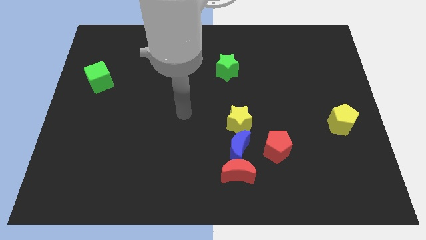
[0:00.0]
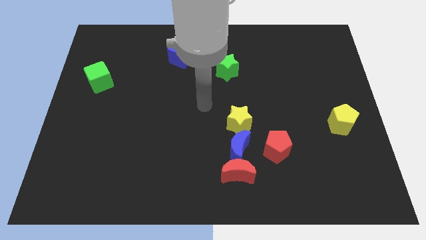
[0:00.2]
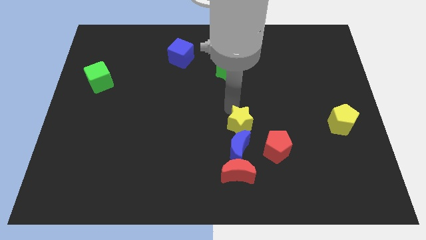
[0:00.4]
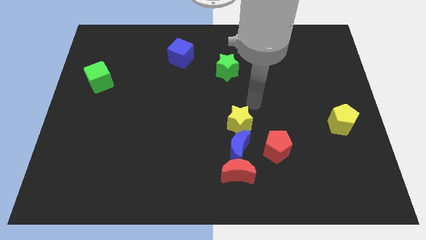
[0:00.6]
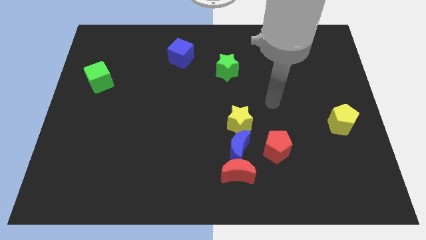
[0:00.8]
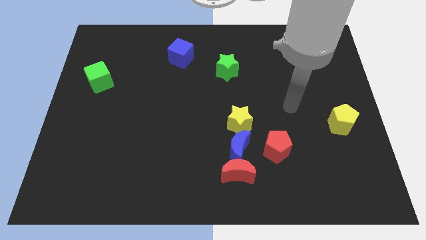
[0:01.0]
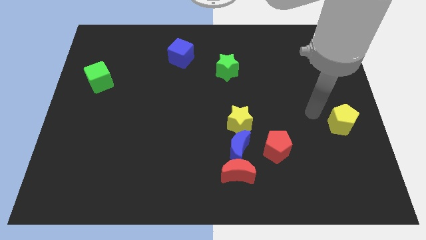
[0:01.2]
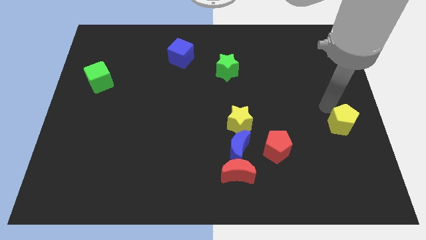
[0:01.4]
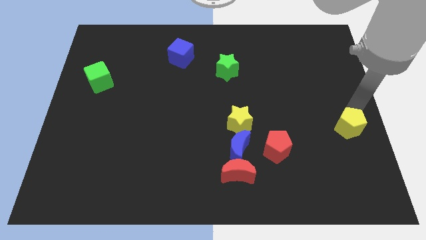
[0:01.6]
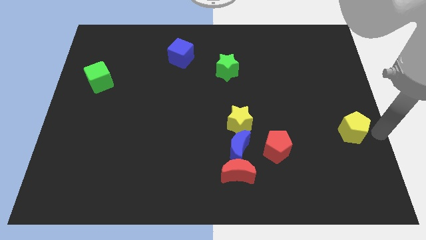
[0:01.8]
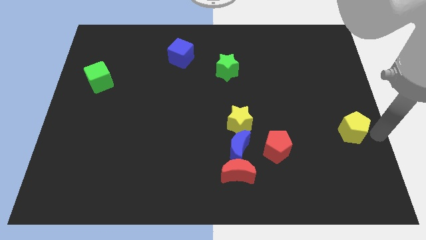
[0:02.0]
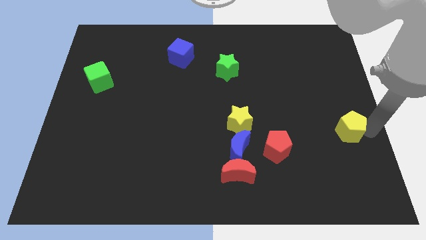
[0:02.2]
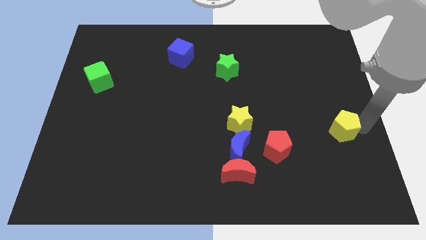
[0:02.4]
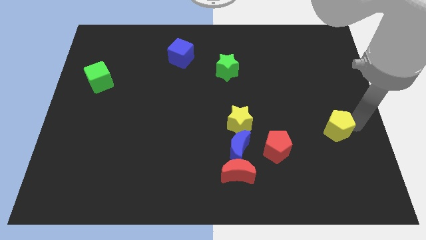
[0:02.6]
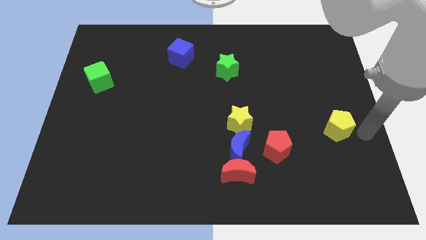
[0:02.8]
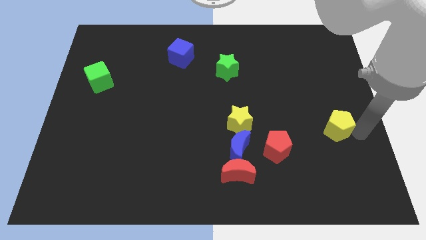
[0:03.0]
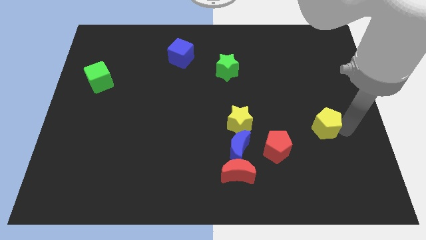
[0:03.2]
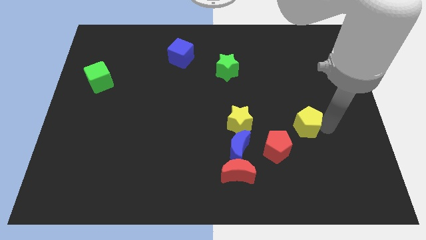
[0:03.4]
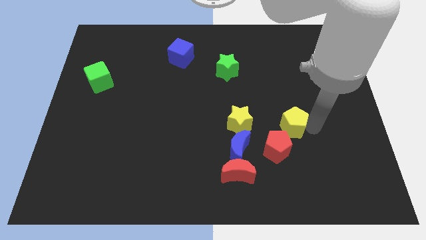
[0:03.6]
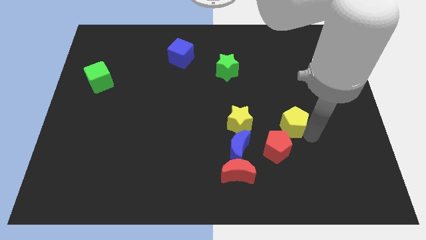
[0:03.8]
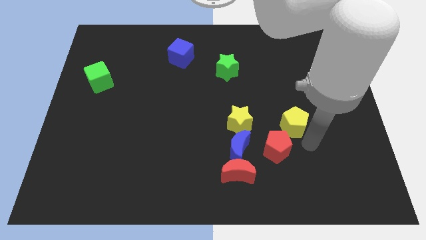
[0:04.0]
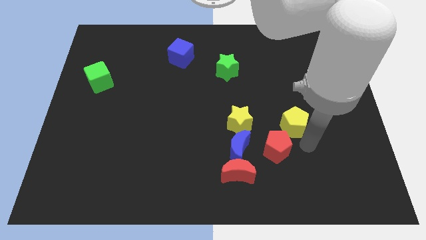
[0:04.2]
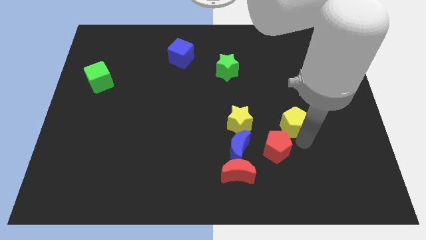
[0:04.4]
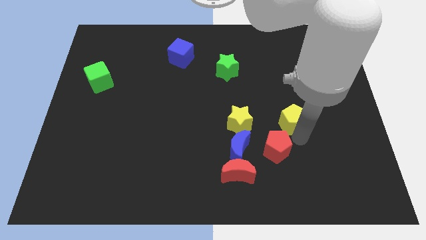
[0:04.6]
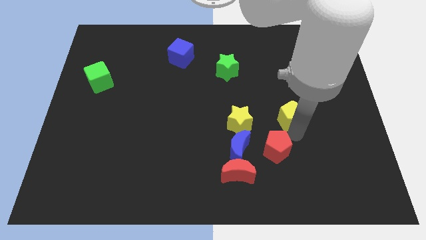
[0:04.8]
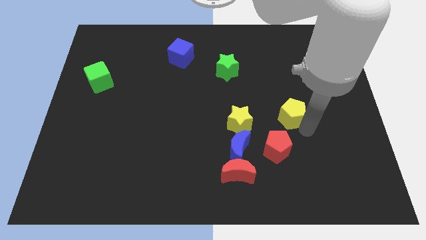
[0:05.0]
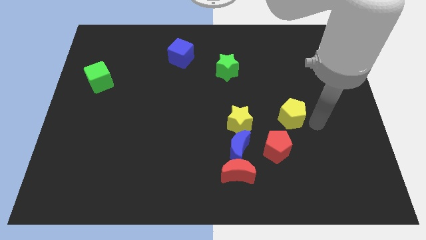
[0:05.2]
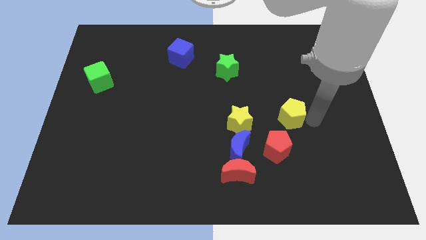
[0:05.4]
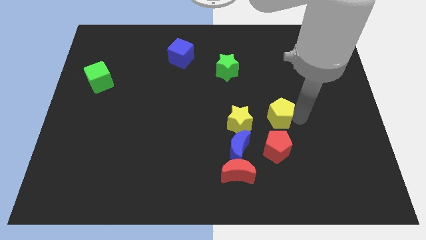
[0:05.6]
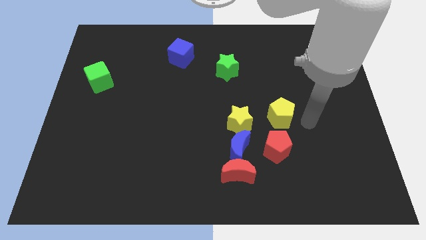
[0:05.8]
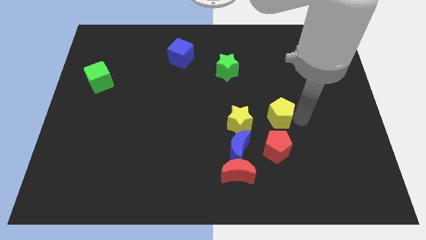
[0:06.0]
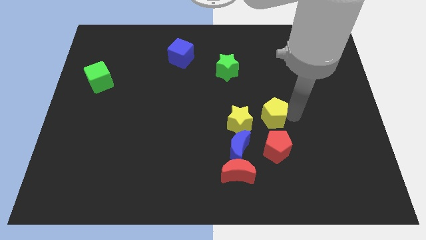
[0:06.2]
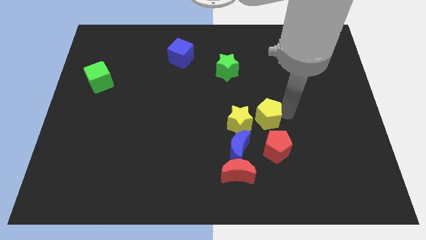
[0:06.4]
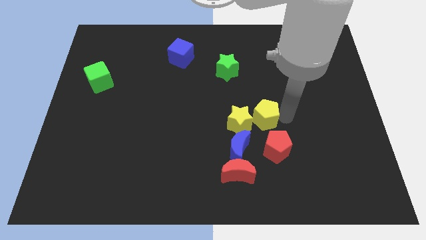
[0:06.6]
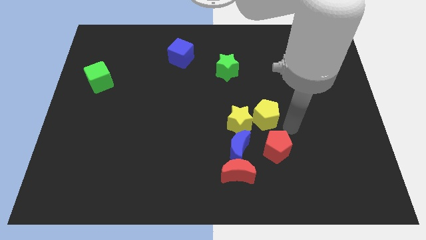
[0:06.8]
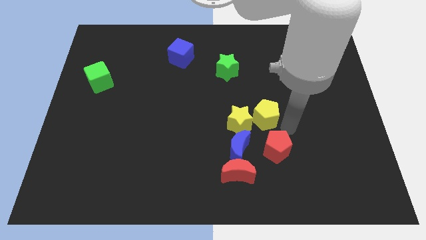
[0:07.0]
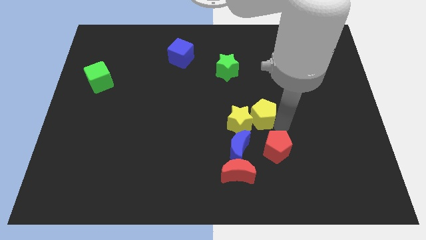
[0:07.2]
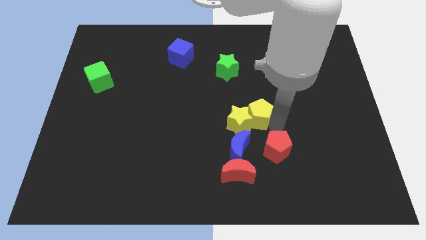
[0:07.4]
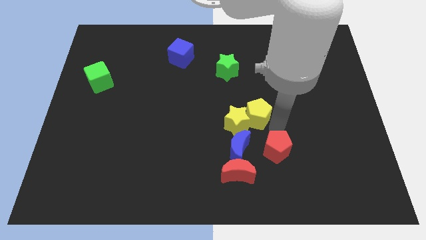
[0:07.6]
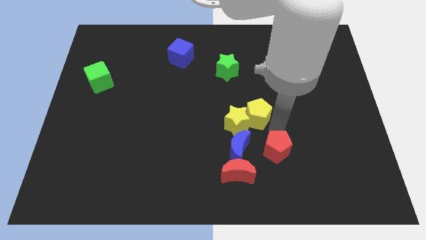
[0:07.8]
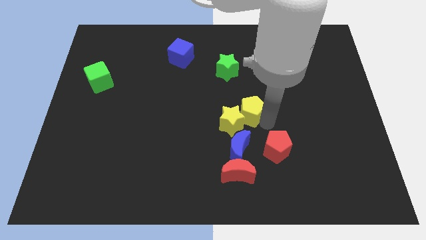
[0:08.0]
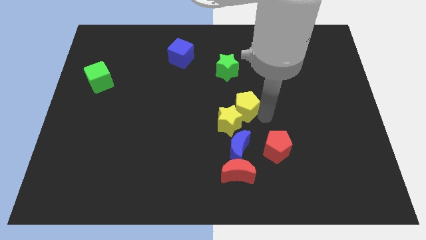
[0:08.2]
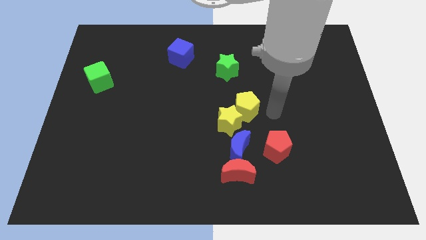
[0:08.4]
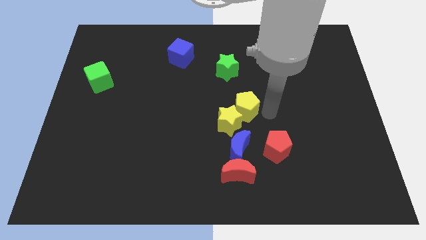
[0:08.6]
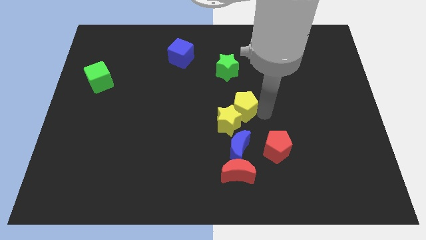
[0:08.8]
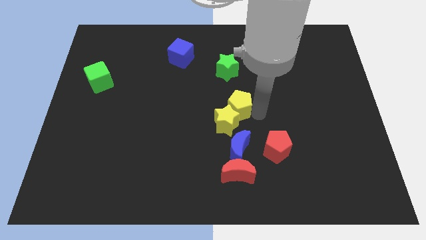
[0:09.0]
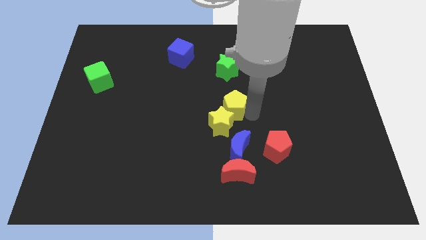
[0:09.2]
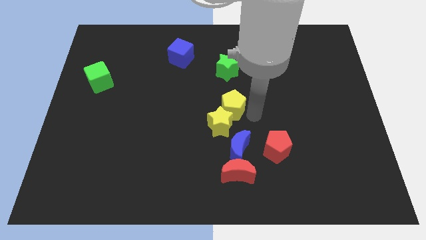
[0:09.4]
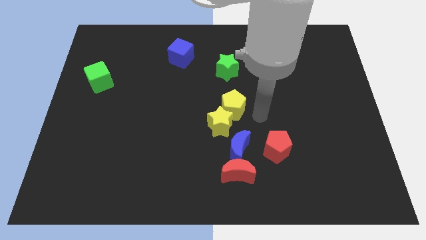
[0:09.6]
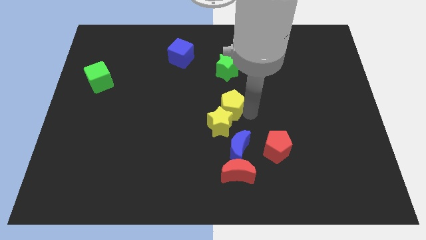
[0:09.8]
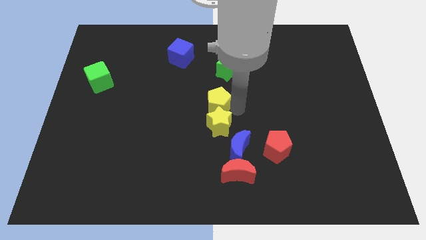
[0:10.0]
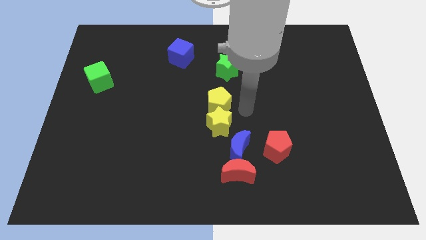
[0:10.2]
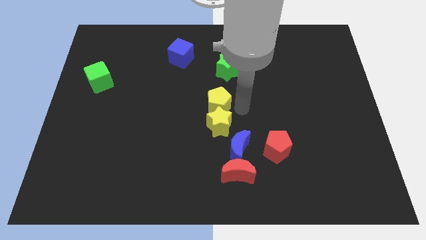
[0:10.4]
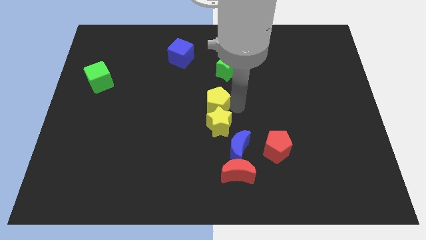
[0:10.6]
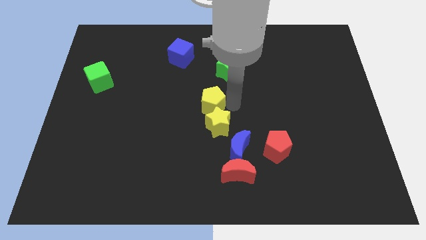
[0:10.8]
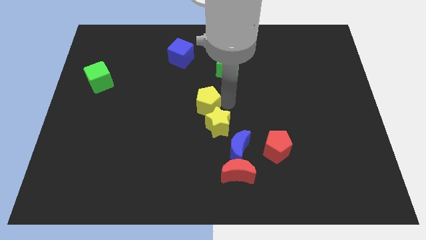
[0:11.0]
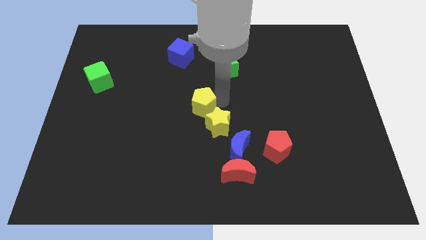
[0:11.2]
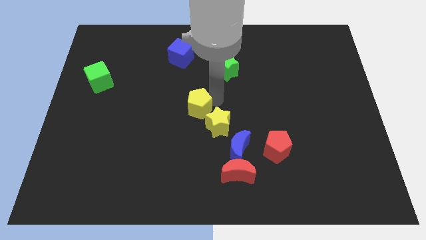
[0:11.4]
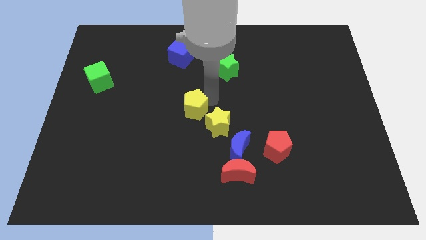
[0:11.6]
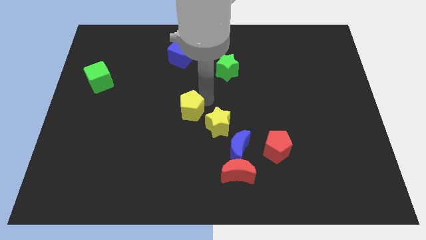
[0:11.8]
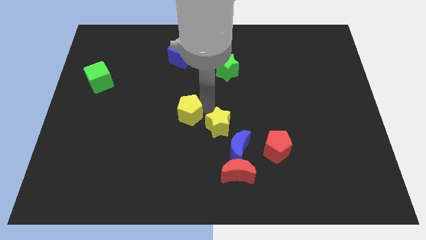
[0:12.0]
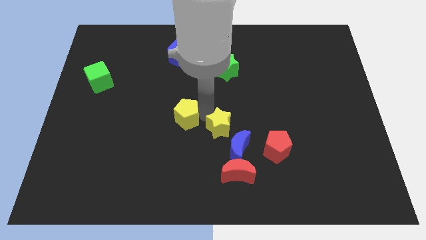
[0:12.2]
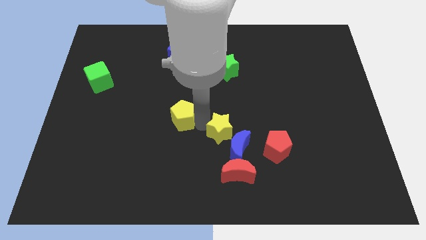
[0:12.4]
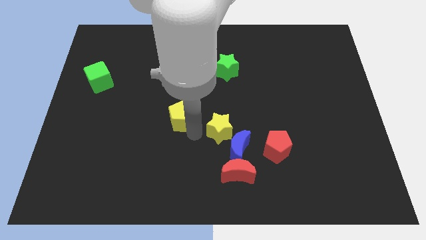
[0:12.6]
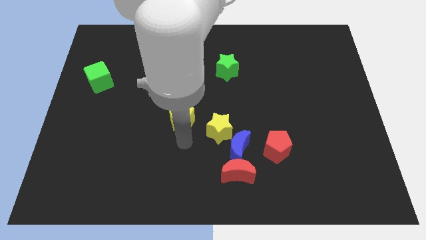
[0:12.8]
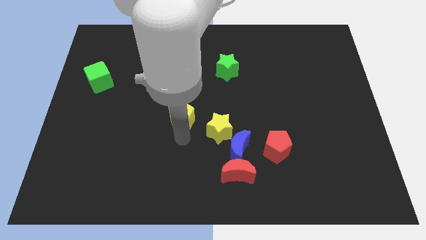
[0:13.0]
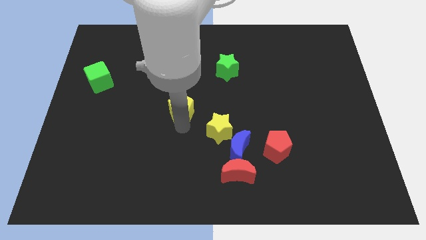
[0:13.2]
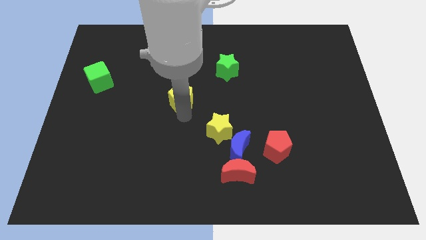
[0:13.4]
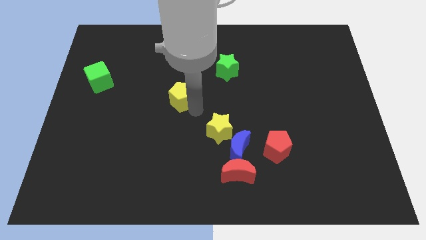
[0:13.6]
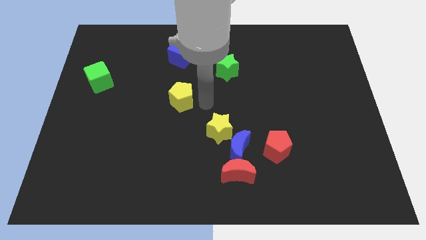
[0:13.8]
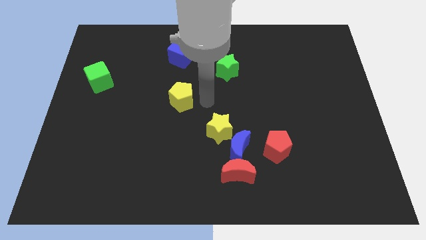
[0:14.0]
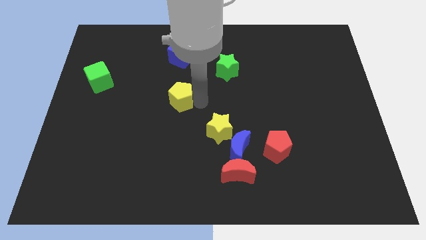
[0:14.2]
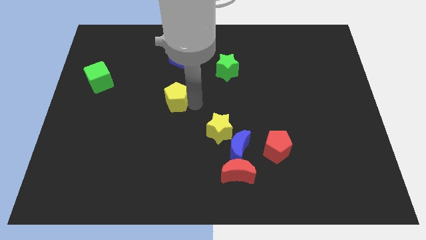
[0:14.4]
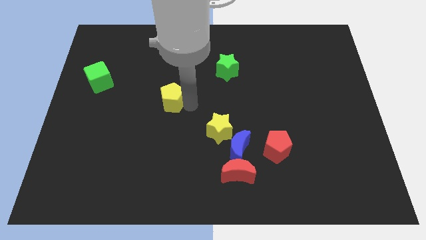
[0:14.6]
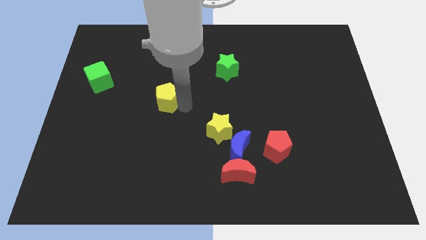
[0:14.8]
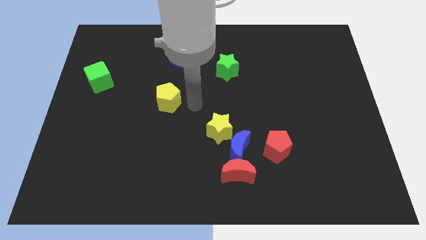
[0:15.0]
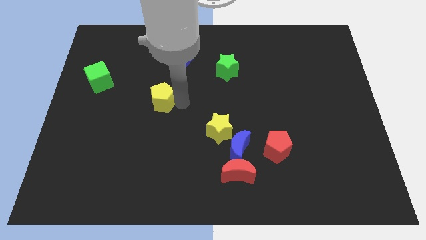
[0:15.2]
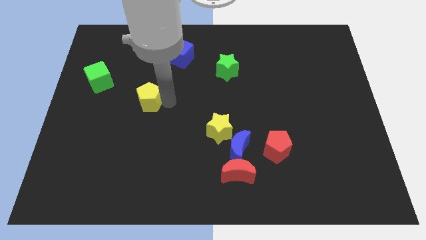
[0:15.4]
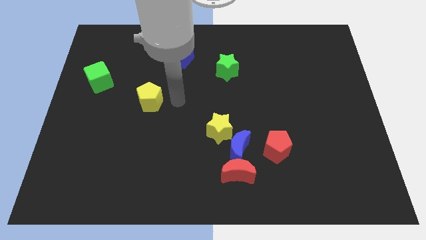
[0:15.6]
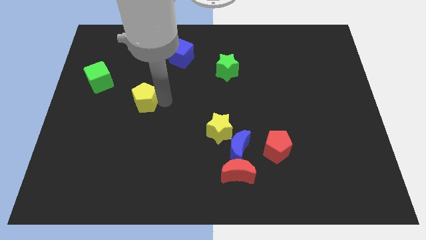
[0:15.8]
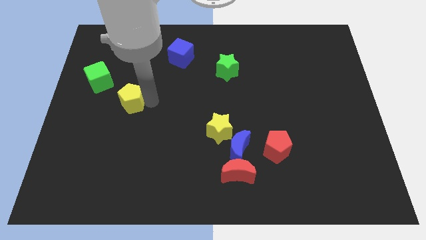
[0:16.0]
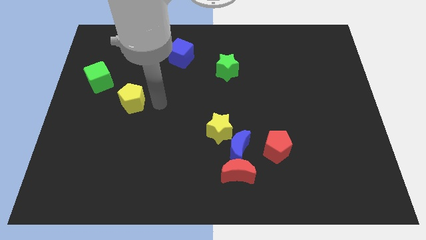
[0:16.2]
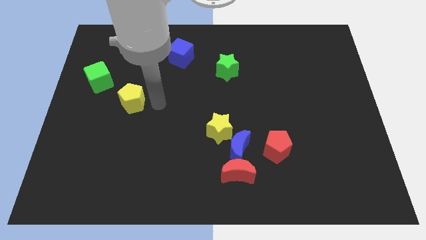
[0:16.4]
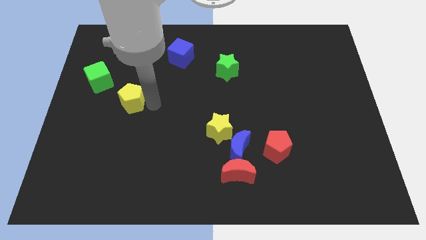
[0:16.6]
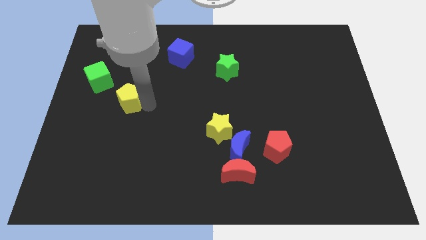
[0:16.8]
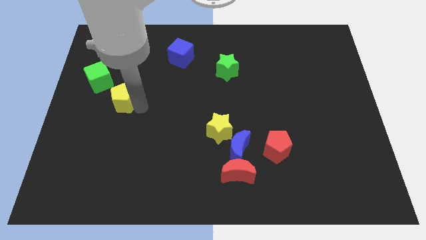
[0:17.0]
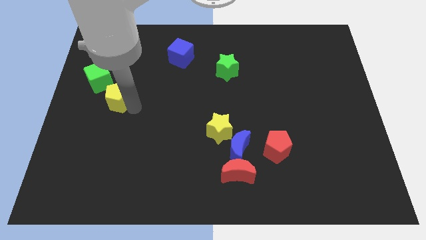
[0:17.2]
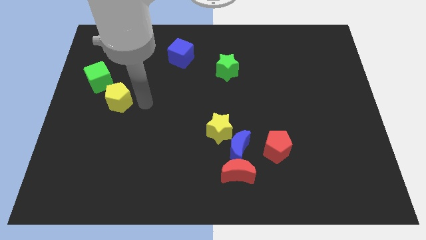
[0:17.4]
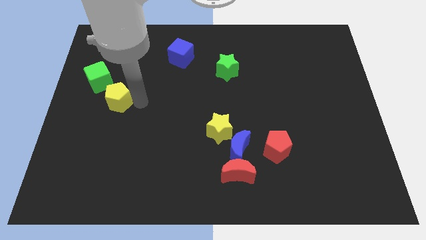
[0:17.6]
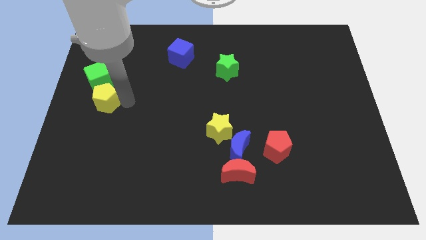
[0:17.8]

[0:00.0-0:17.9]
move the yellow pentagon to the center left
